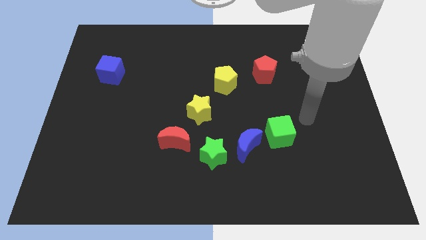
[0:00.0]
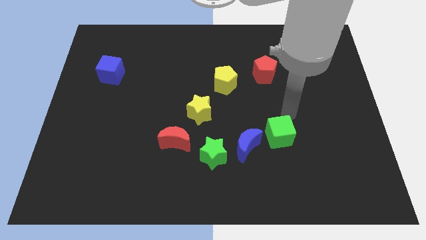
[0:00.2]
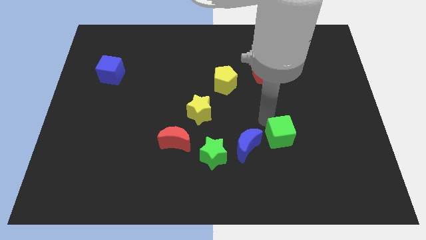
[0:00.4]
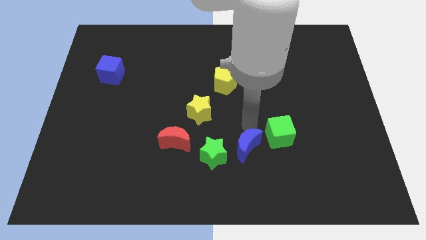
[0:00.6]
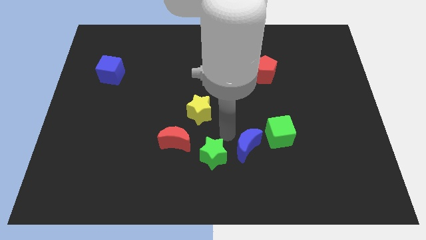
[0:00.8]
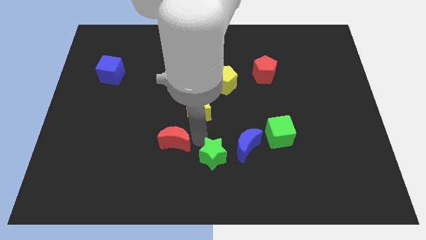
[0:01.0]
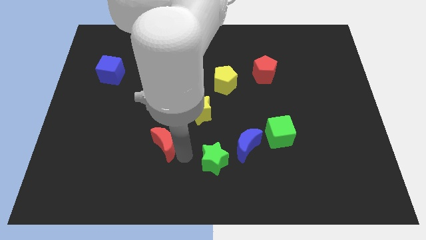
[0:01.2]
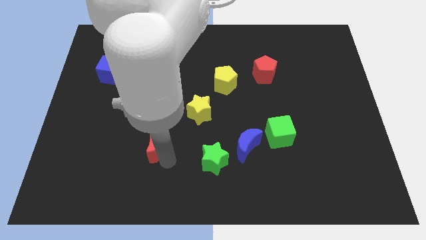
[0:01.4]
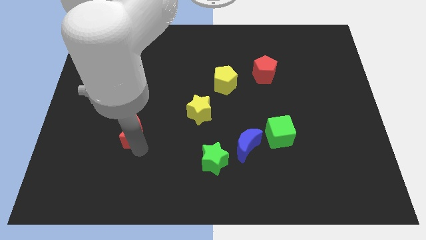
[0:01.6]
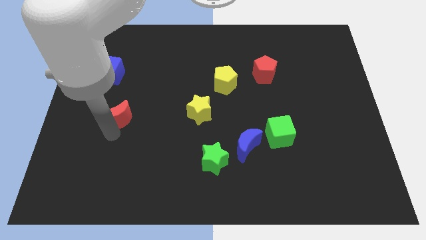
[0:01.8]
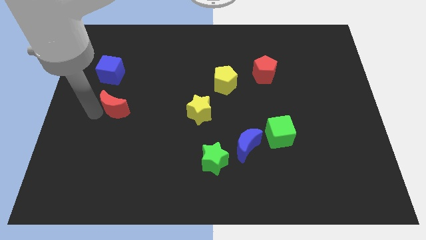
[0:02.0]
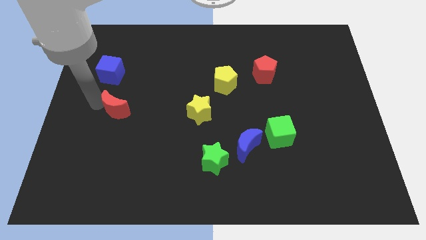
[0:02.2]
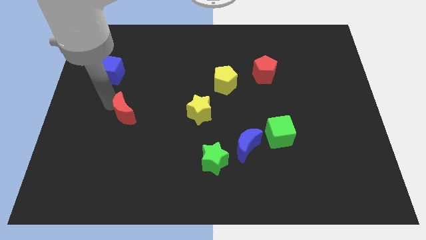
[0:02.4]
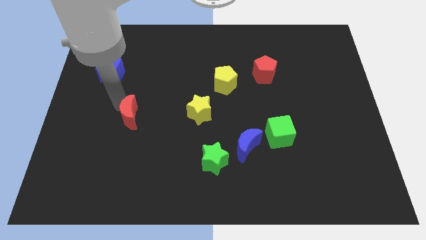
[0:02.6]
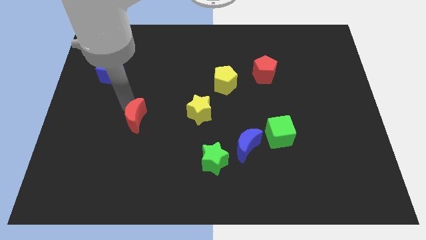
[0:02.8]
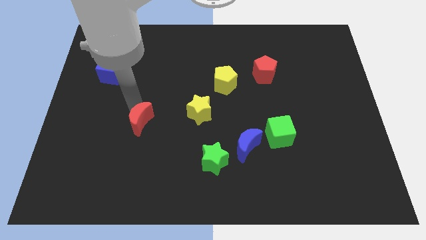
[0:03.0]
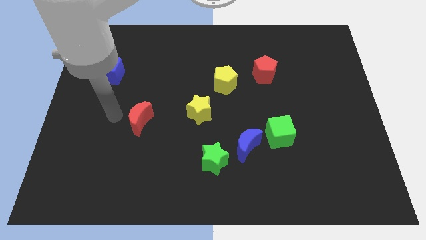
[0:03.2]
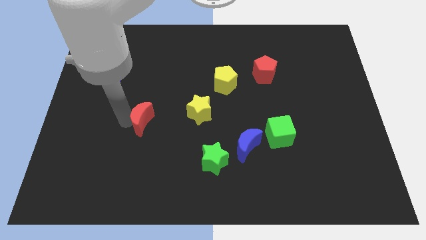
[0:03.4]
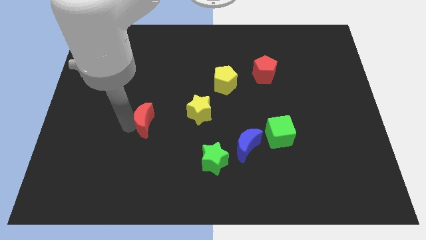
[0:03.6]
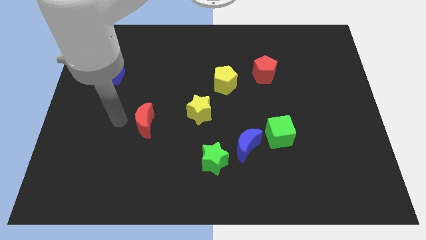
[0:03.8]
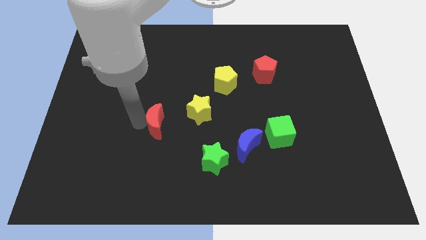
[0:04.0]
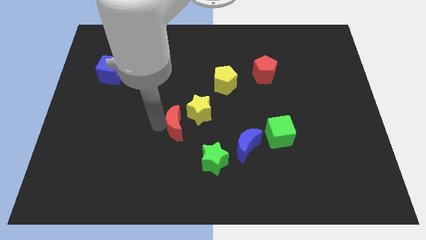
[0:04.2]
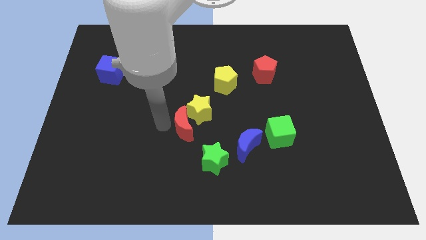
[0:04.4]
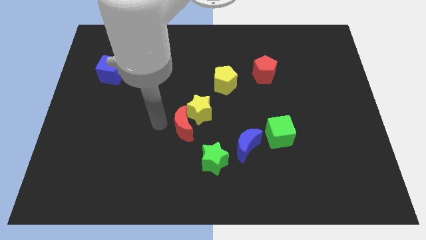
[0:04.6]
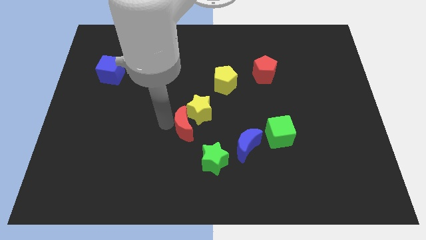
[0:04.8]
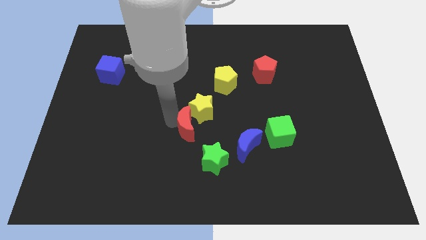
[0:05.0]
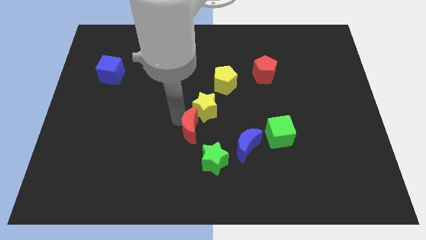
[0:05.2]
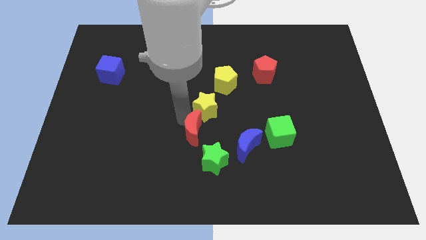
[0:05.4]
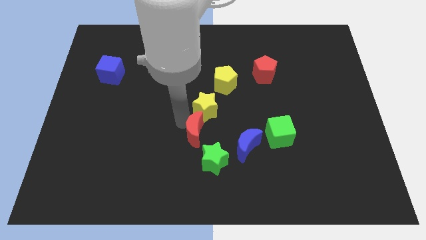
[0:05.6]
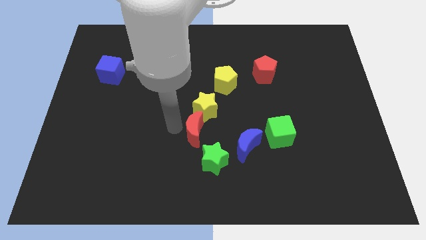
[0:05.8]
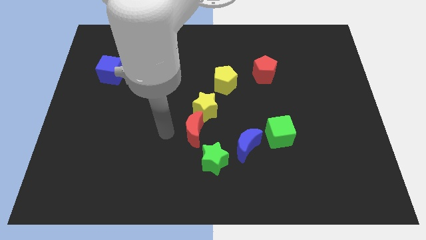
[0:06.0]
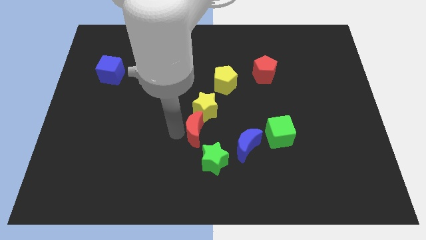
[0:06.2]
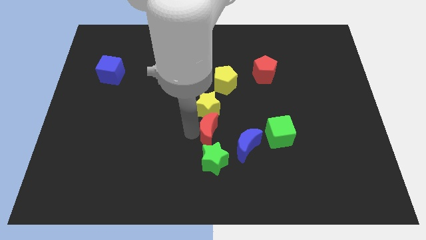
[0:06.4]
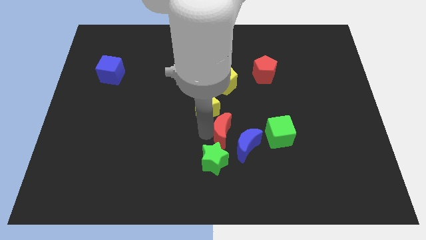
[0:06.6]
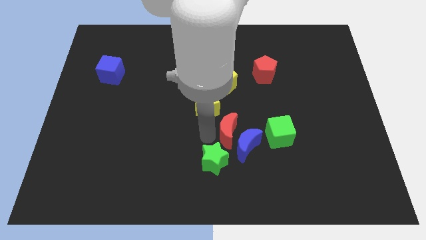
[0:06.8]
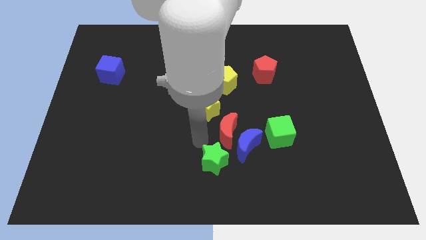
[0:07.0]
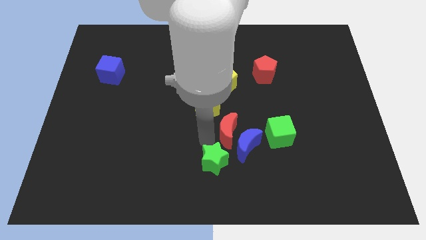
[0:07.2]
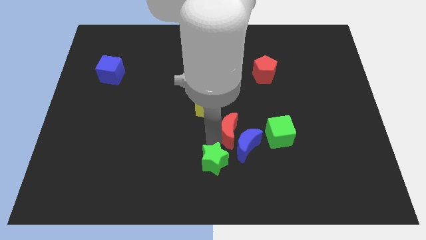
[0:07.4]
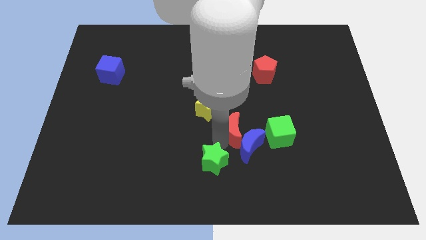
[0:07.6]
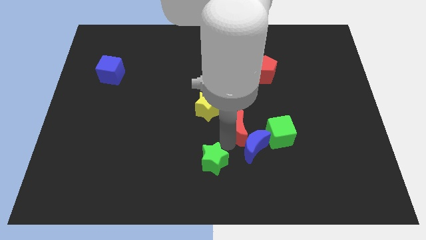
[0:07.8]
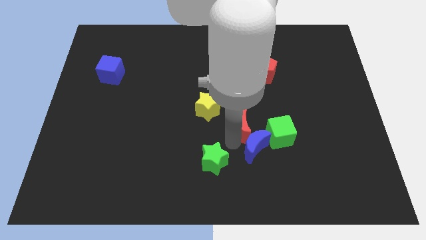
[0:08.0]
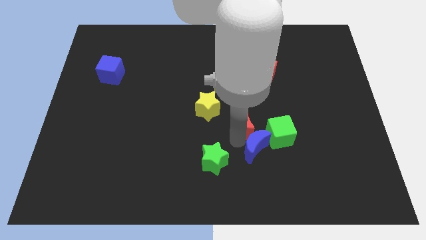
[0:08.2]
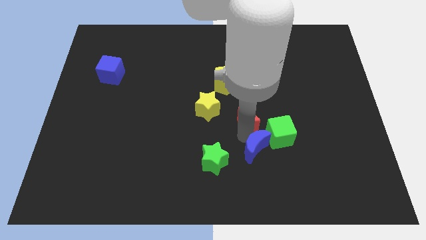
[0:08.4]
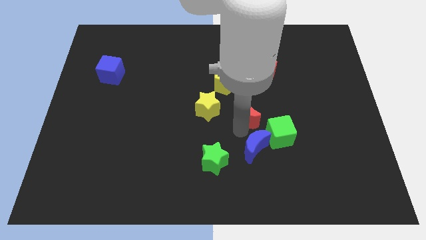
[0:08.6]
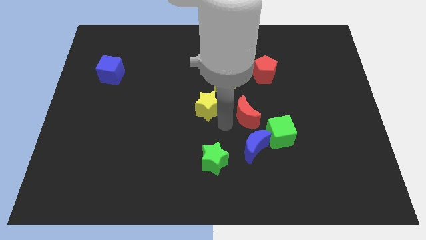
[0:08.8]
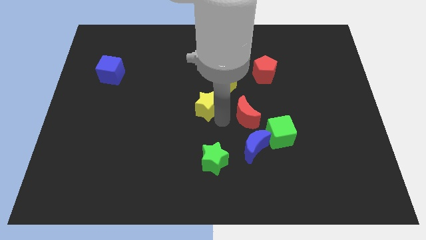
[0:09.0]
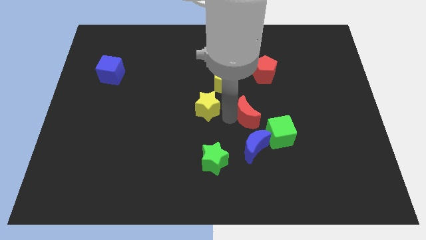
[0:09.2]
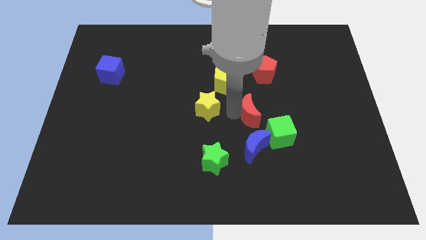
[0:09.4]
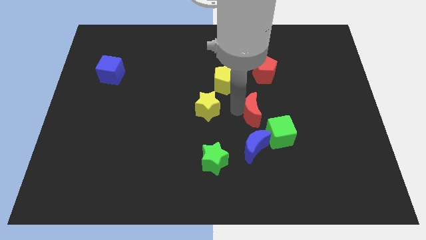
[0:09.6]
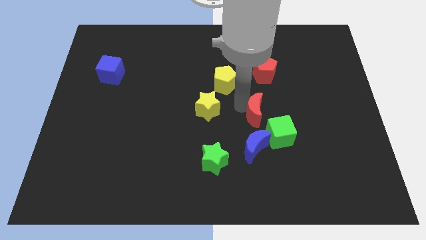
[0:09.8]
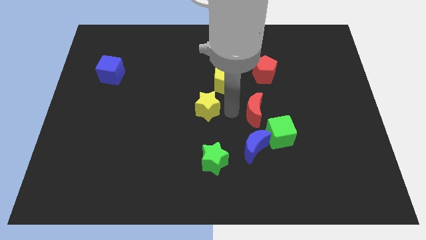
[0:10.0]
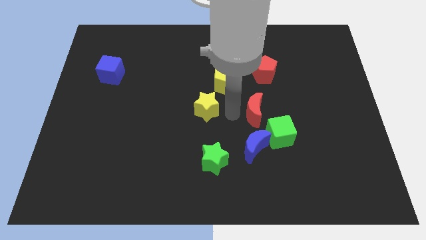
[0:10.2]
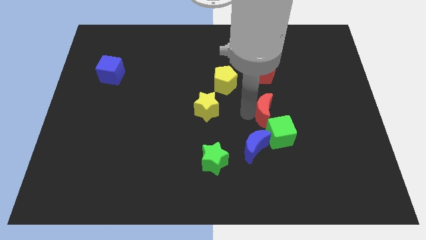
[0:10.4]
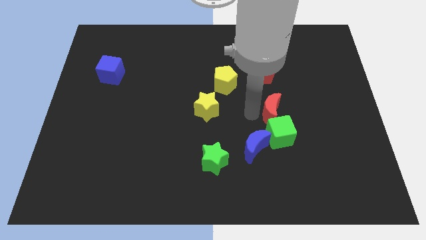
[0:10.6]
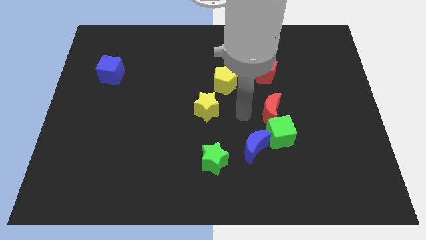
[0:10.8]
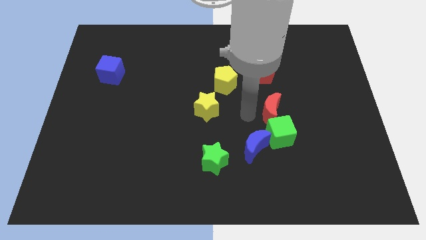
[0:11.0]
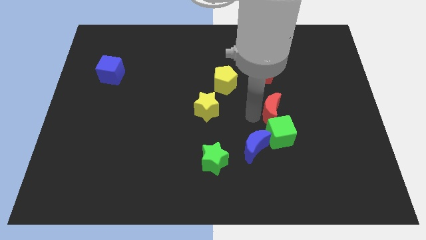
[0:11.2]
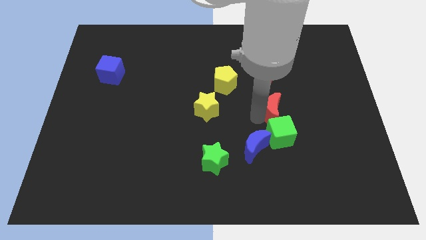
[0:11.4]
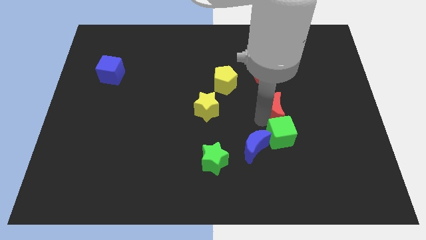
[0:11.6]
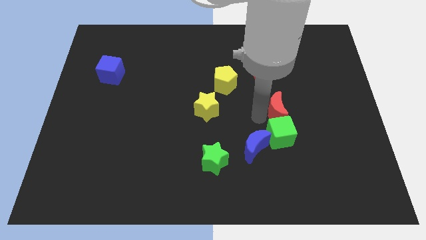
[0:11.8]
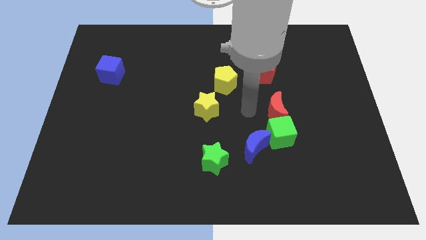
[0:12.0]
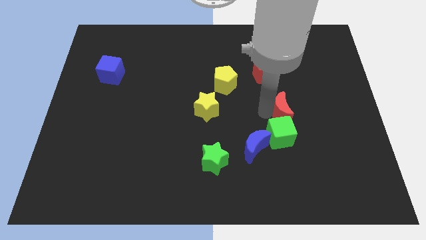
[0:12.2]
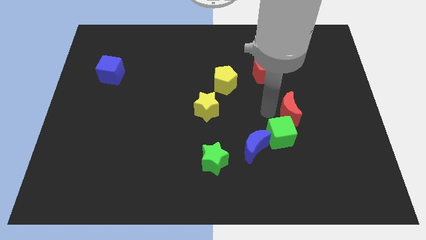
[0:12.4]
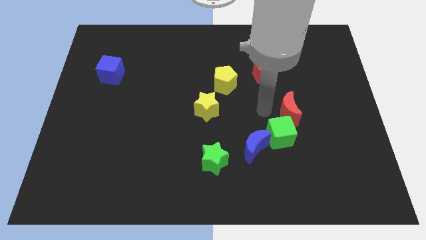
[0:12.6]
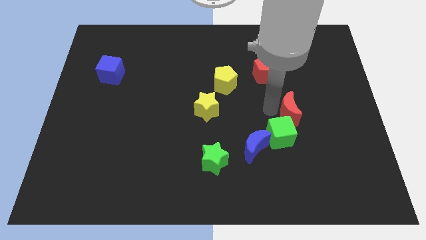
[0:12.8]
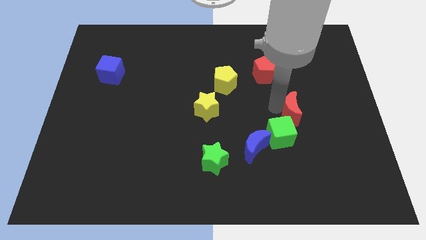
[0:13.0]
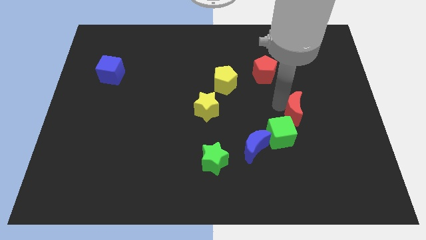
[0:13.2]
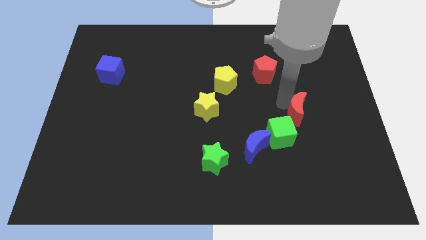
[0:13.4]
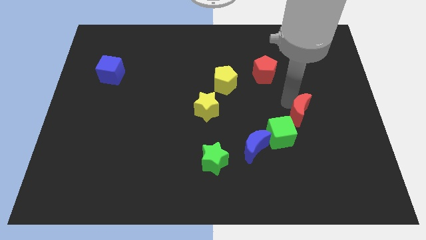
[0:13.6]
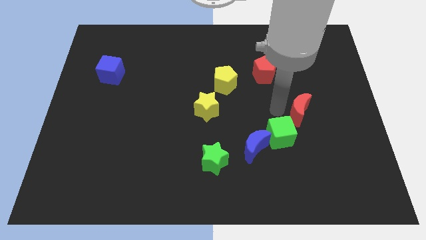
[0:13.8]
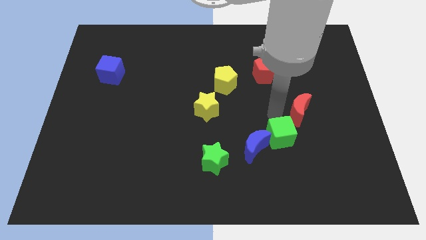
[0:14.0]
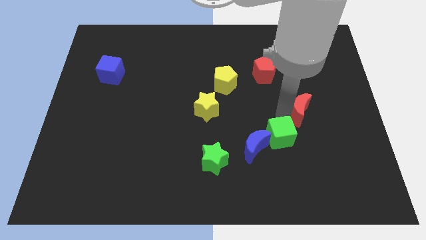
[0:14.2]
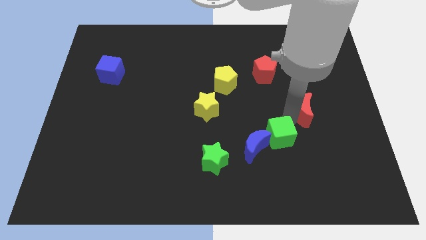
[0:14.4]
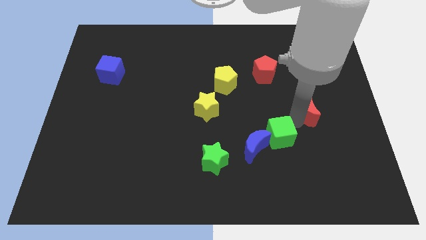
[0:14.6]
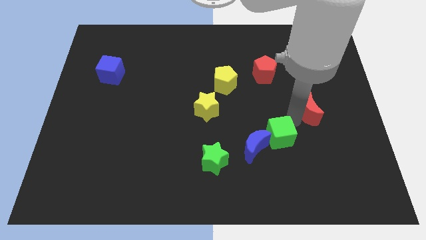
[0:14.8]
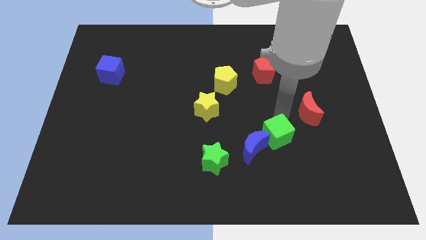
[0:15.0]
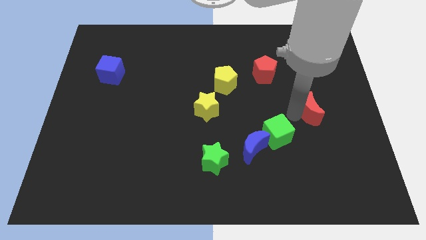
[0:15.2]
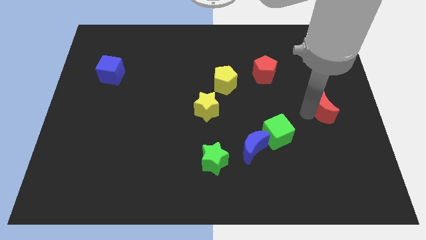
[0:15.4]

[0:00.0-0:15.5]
slide the red moon to the center right
